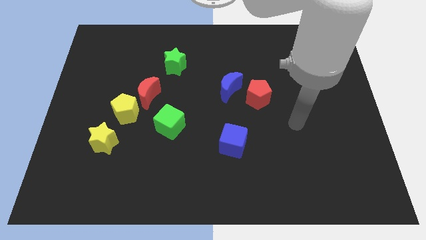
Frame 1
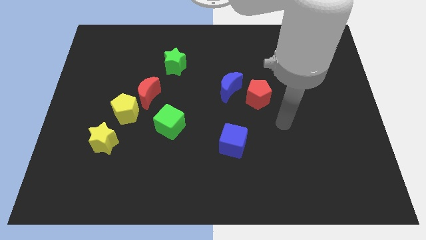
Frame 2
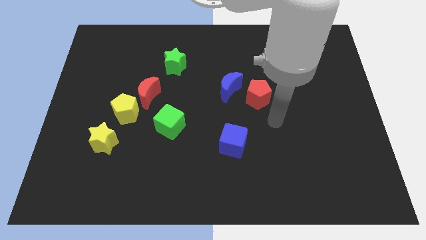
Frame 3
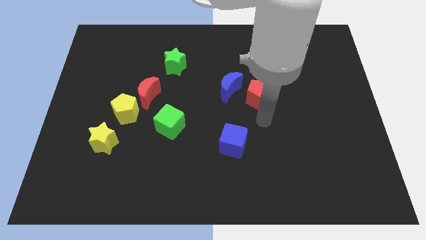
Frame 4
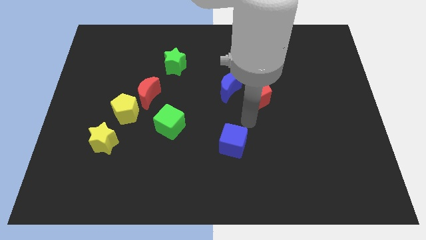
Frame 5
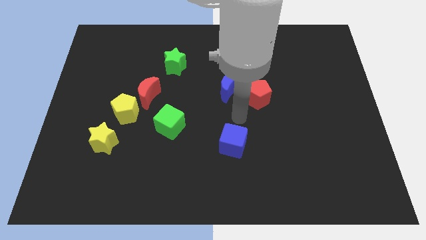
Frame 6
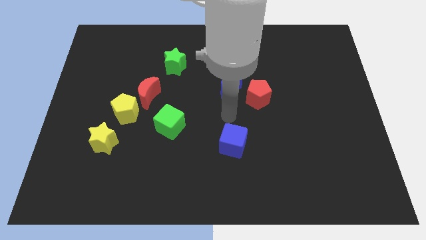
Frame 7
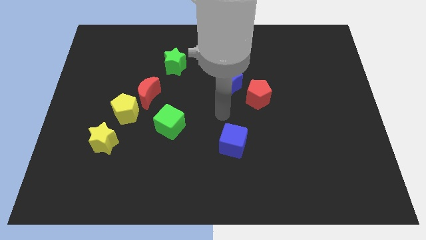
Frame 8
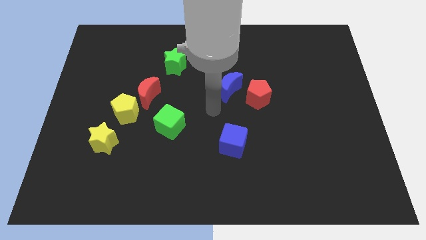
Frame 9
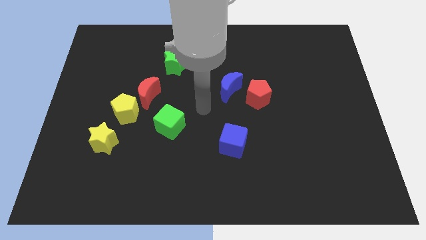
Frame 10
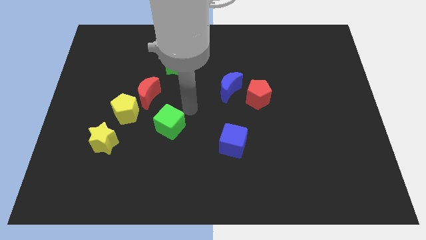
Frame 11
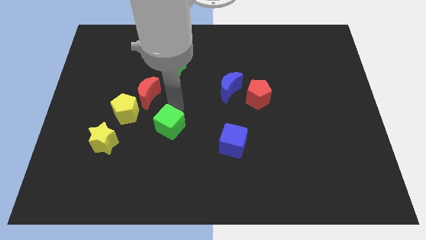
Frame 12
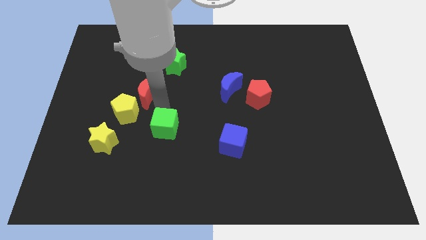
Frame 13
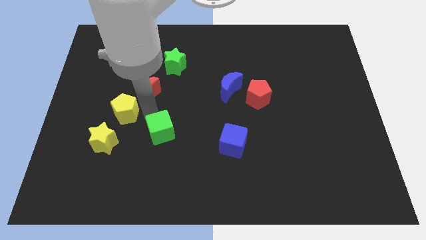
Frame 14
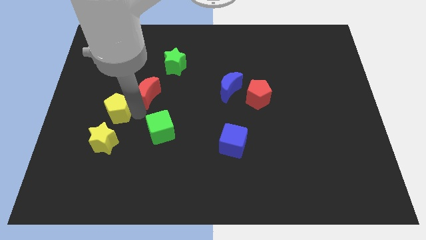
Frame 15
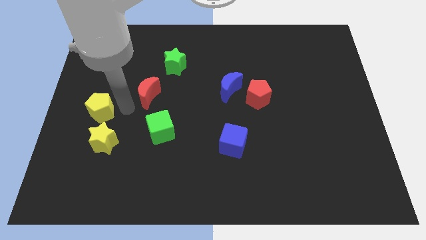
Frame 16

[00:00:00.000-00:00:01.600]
move the red moon away from the yellow pentagon

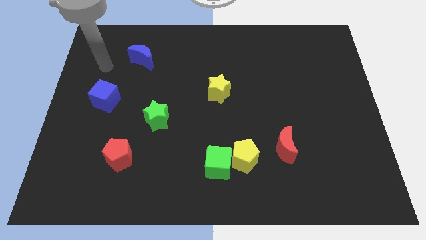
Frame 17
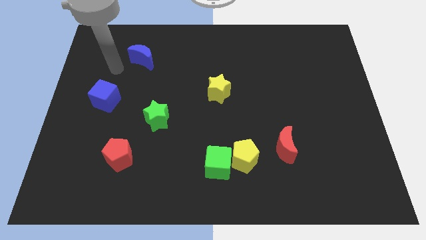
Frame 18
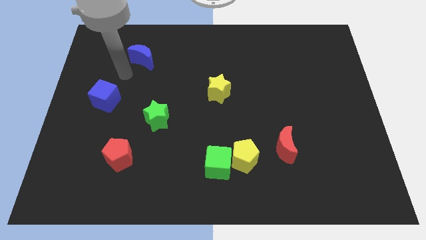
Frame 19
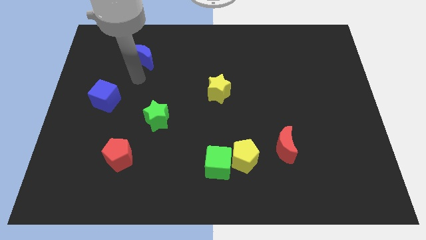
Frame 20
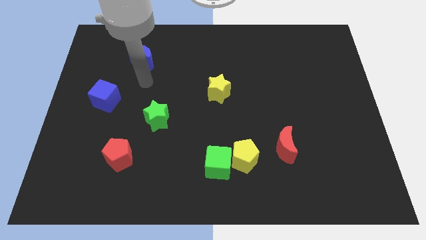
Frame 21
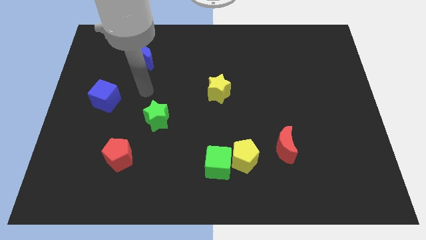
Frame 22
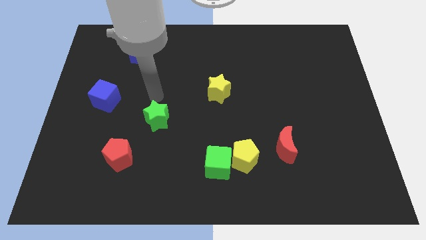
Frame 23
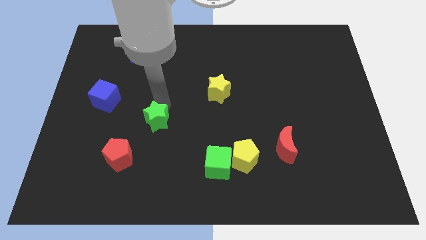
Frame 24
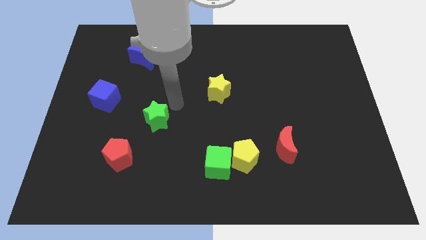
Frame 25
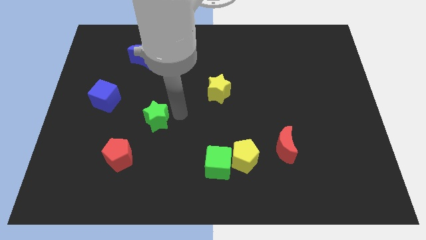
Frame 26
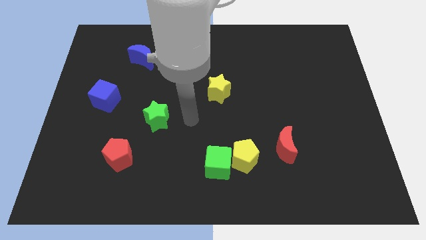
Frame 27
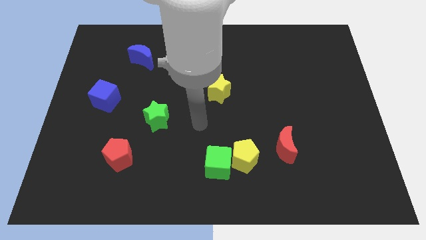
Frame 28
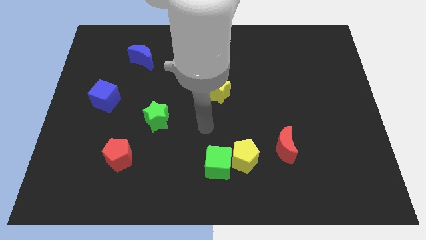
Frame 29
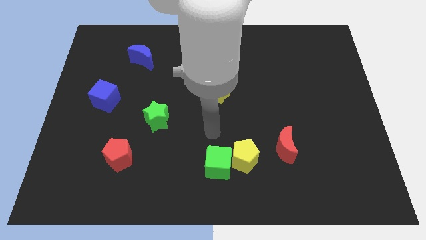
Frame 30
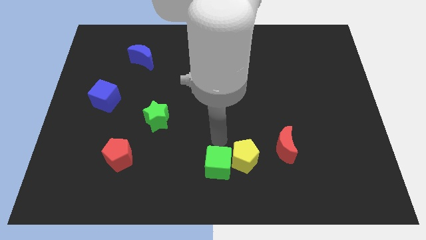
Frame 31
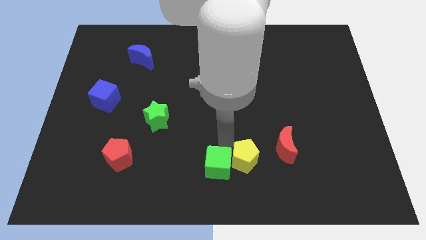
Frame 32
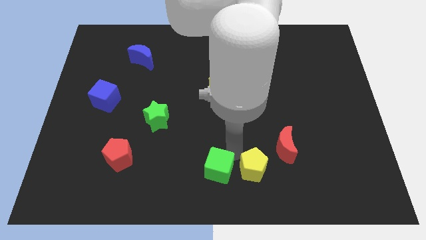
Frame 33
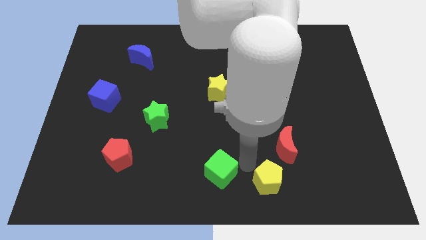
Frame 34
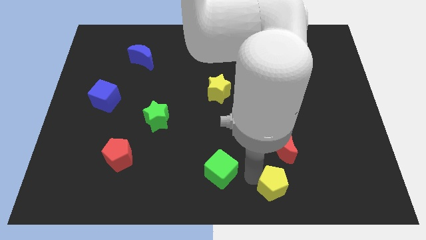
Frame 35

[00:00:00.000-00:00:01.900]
move the green cube away from the yellow pentagon

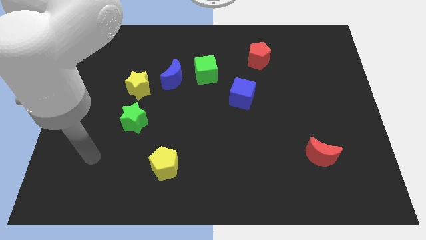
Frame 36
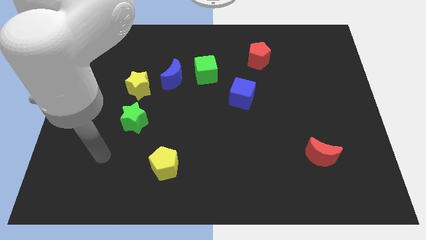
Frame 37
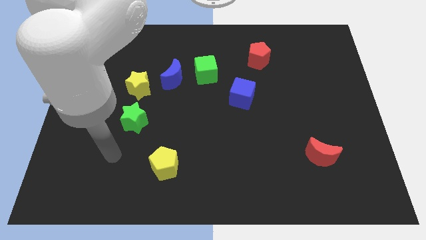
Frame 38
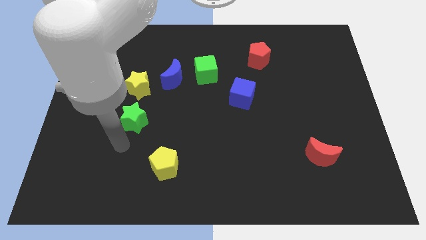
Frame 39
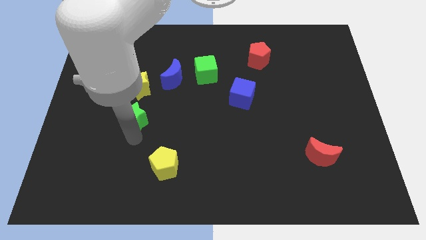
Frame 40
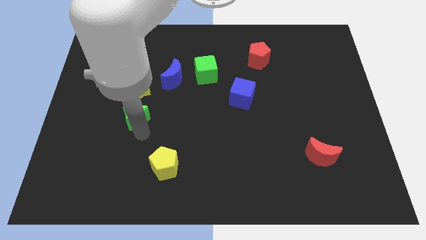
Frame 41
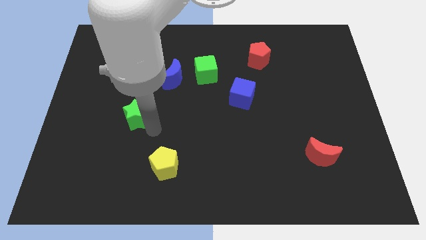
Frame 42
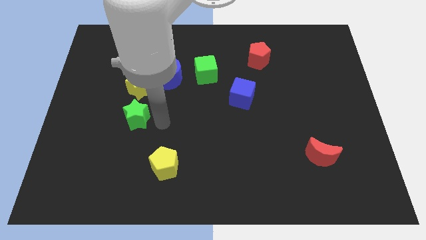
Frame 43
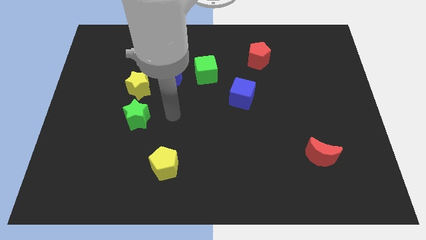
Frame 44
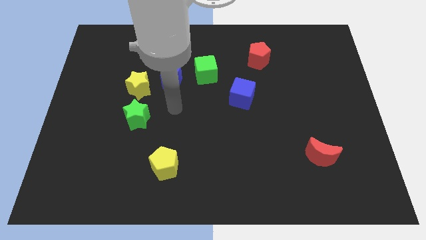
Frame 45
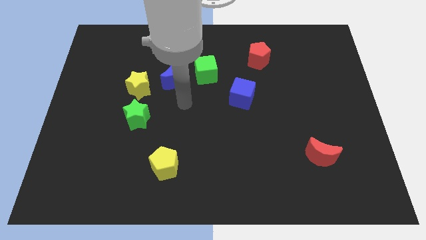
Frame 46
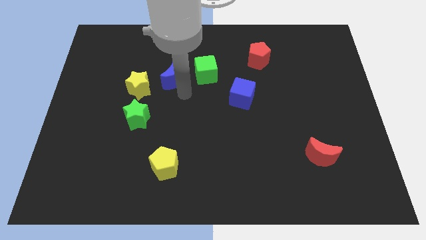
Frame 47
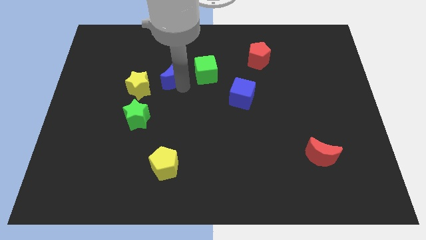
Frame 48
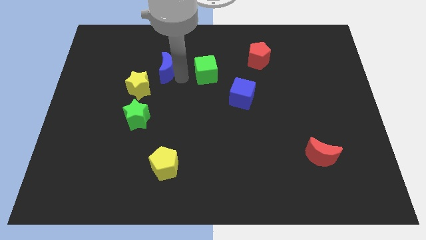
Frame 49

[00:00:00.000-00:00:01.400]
pull the green cube apart from the blue moon

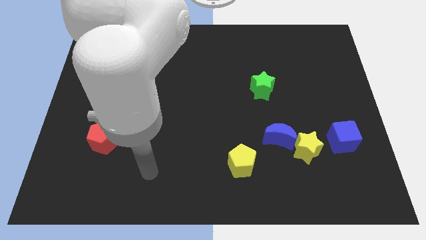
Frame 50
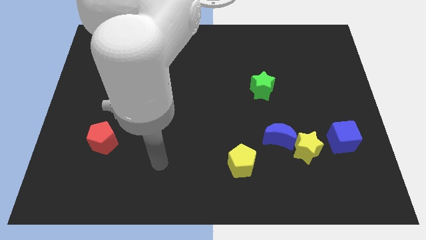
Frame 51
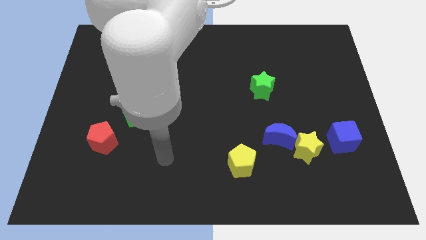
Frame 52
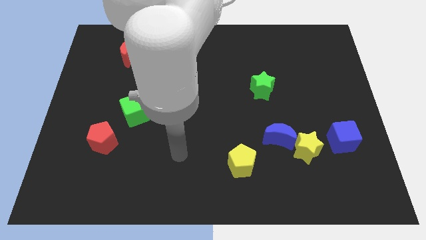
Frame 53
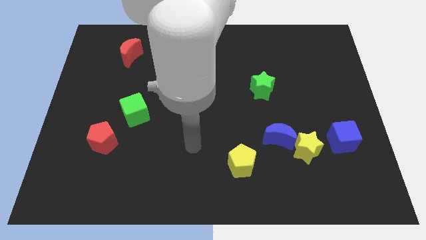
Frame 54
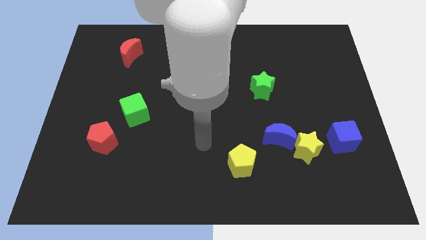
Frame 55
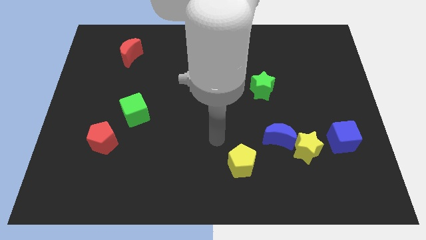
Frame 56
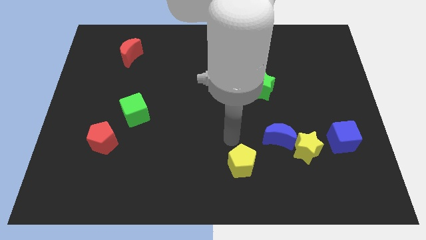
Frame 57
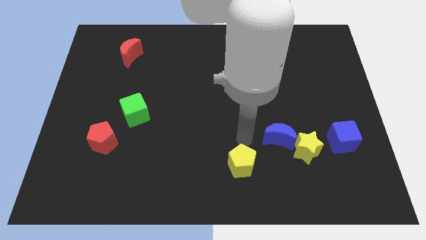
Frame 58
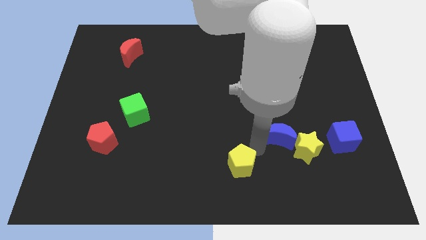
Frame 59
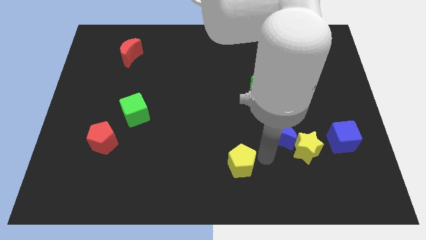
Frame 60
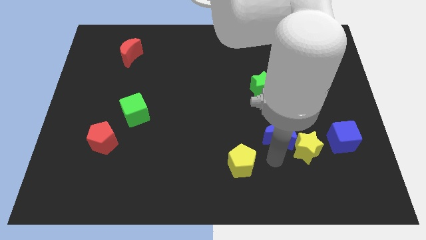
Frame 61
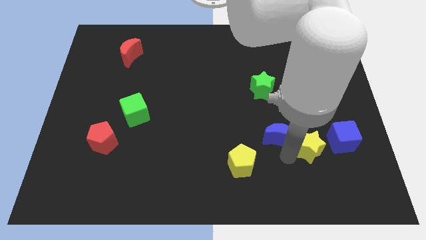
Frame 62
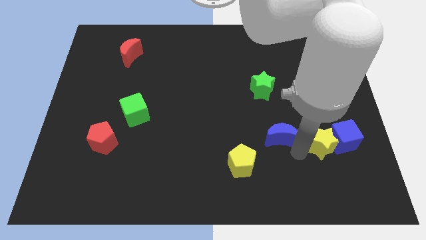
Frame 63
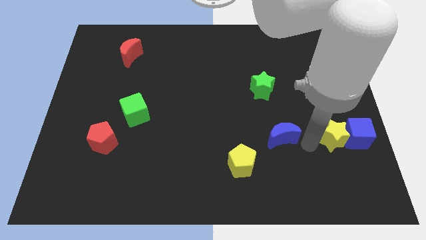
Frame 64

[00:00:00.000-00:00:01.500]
move the blue moon away from the yellow star

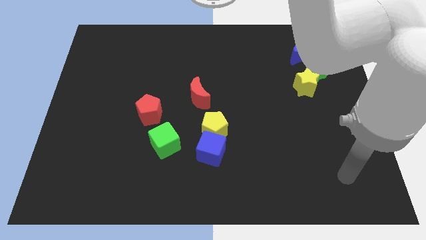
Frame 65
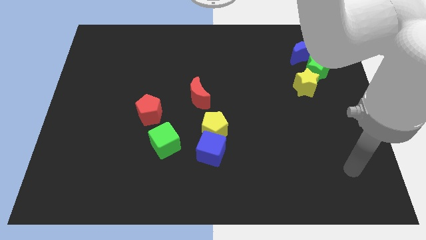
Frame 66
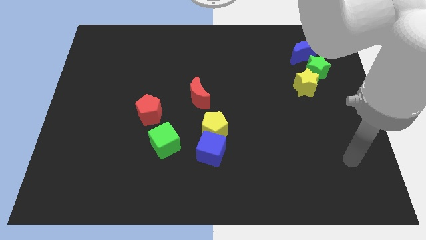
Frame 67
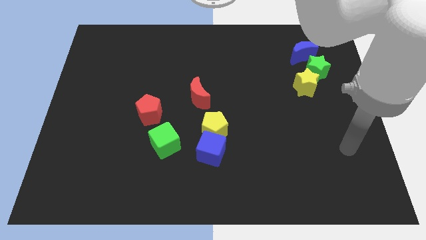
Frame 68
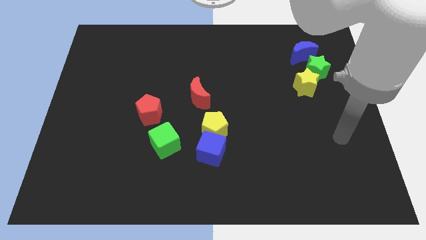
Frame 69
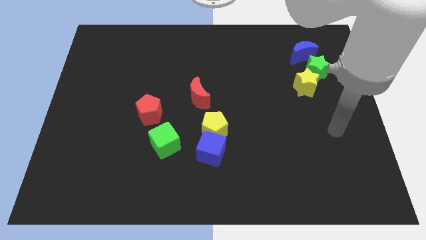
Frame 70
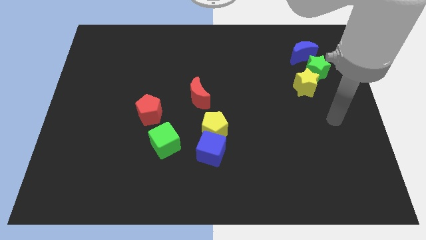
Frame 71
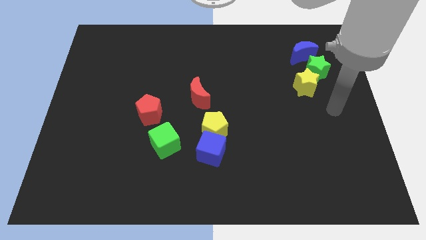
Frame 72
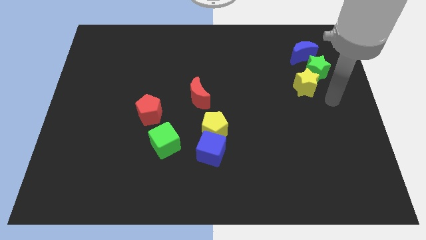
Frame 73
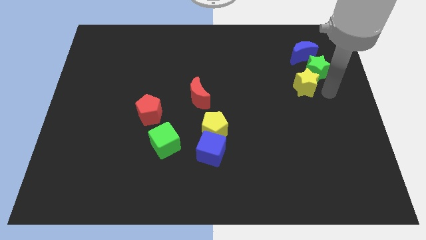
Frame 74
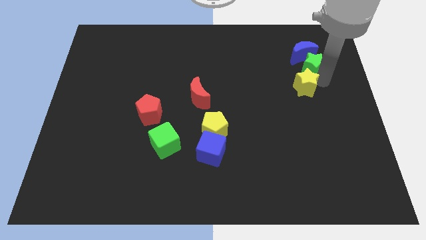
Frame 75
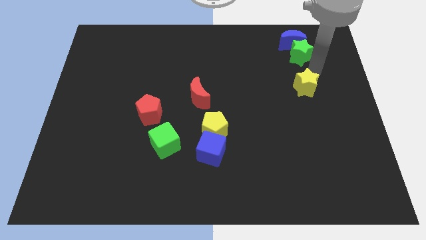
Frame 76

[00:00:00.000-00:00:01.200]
move the yellow star away from the green star

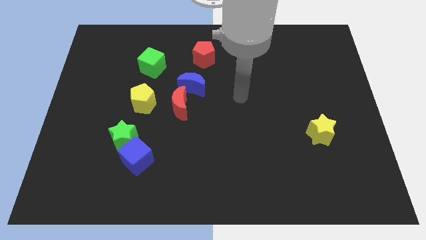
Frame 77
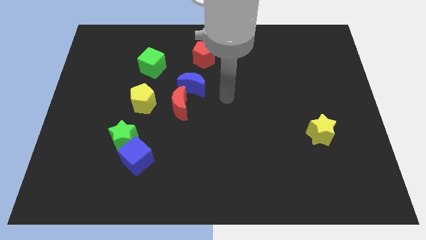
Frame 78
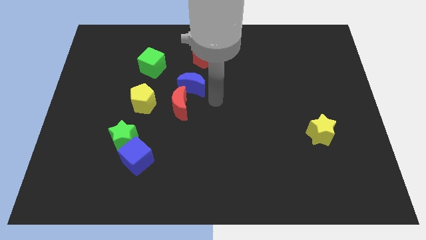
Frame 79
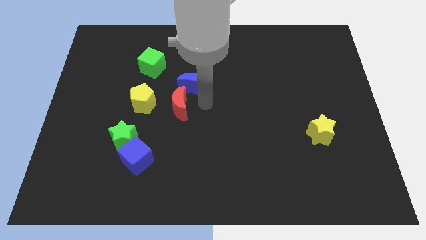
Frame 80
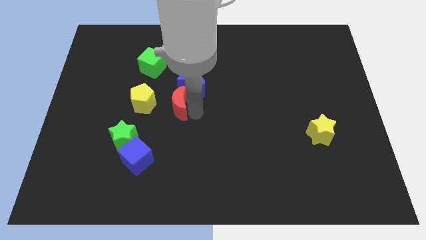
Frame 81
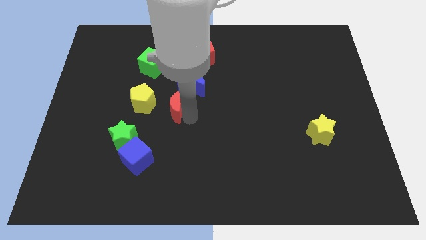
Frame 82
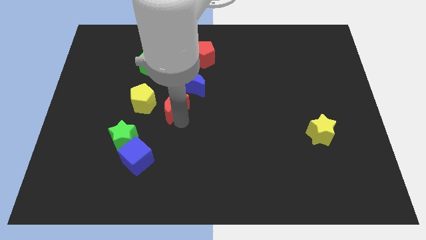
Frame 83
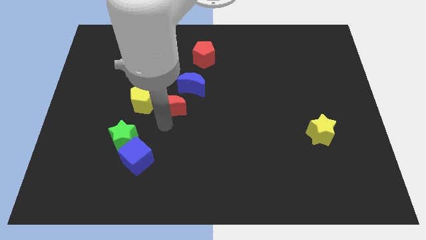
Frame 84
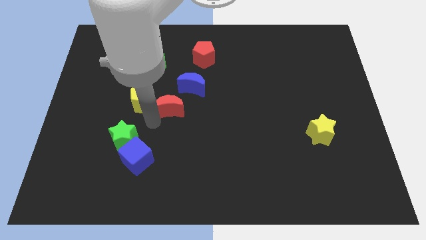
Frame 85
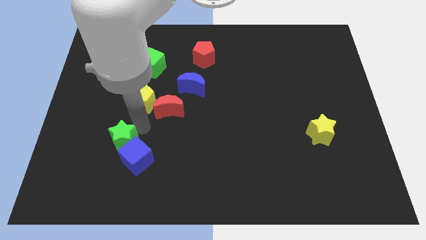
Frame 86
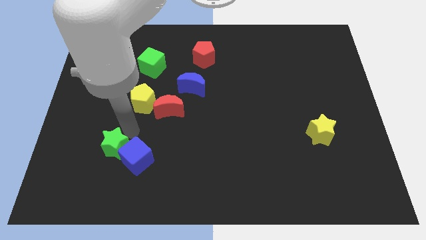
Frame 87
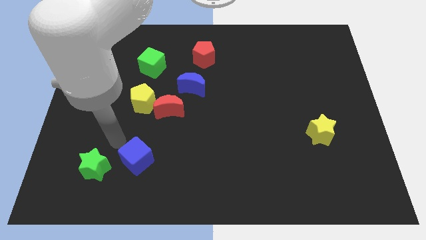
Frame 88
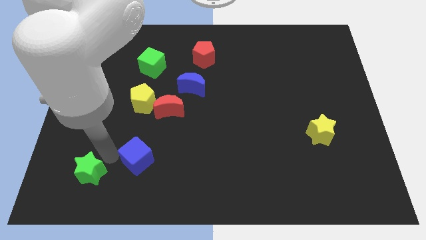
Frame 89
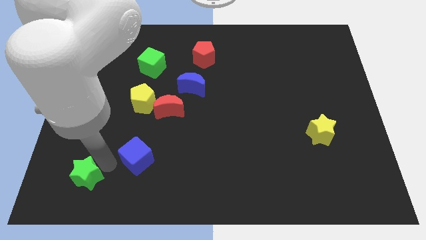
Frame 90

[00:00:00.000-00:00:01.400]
separate the blue cube from the green star

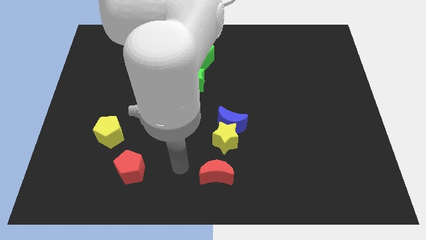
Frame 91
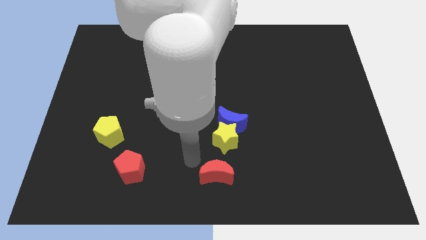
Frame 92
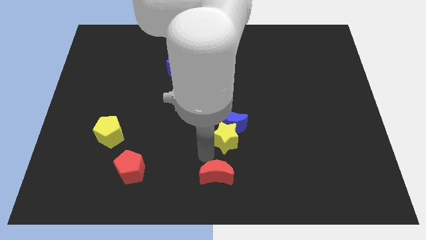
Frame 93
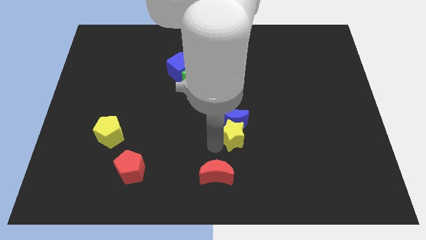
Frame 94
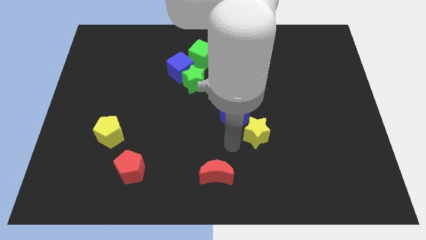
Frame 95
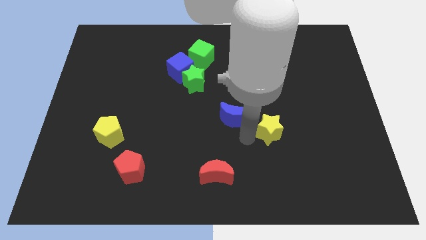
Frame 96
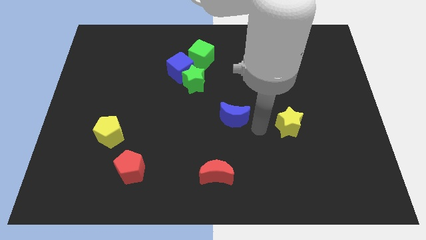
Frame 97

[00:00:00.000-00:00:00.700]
pull the blue moon apart from the yellow star
